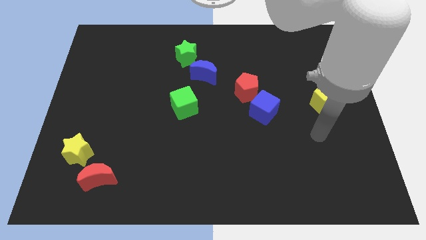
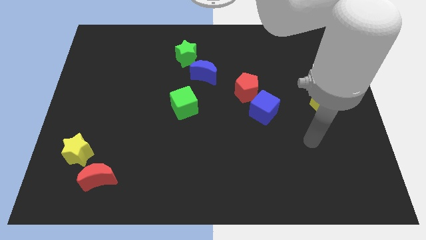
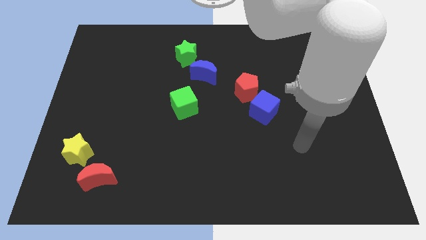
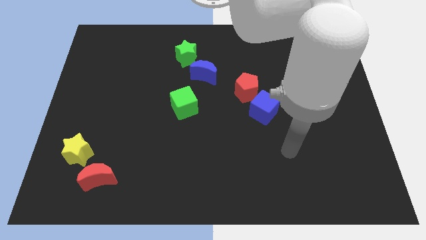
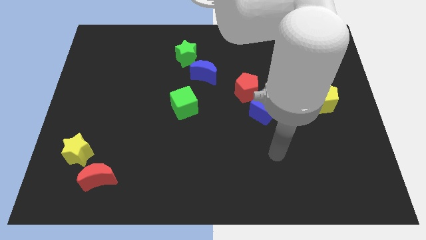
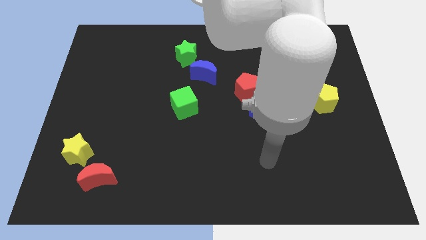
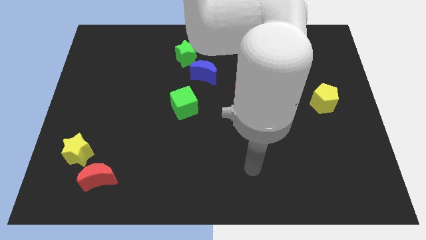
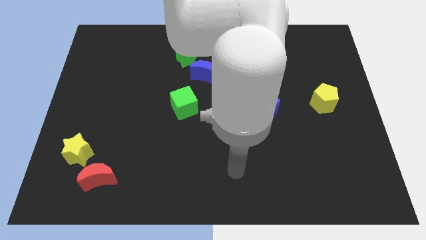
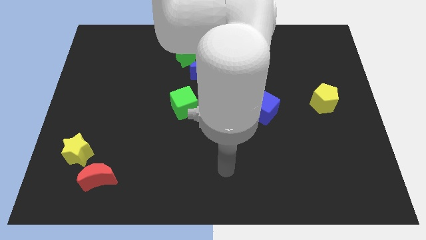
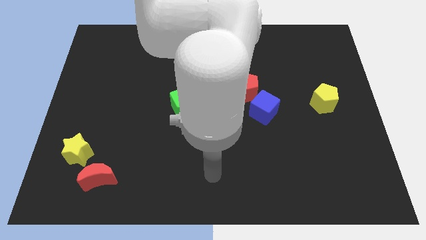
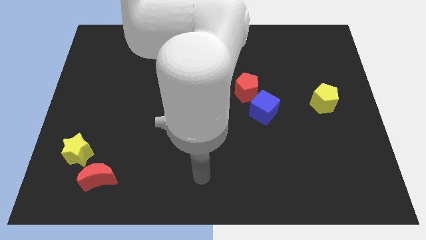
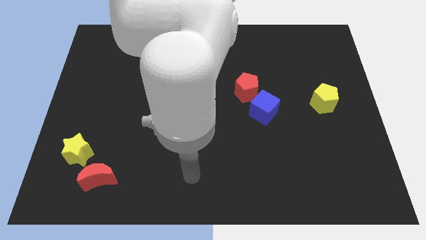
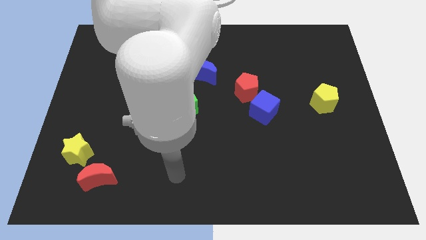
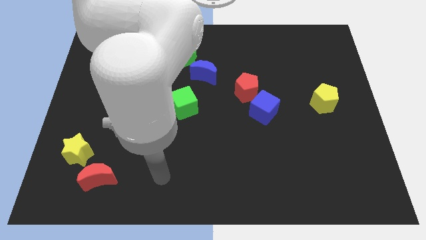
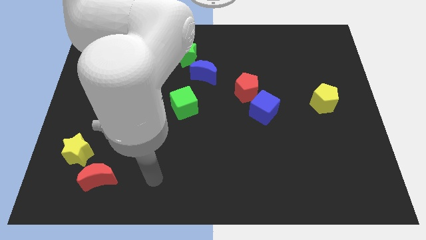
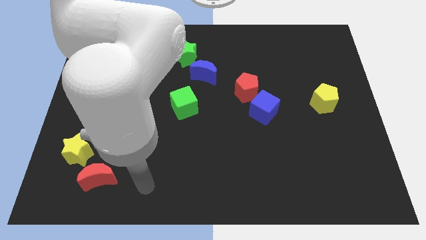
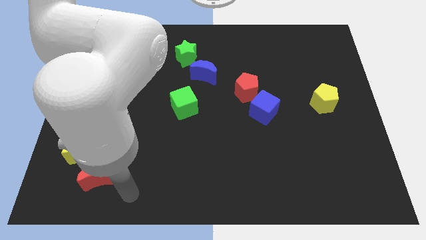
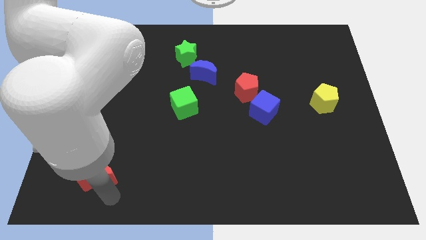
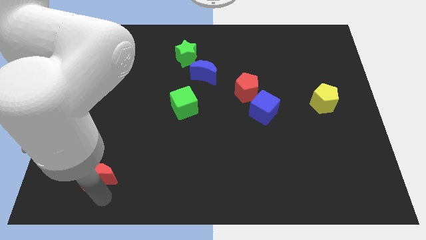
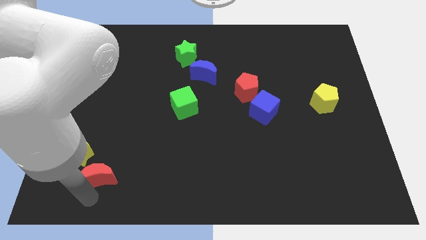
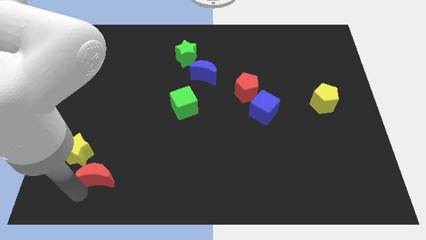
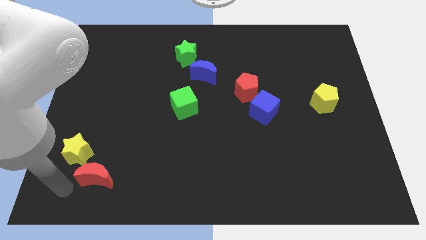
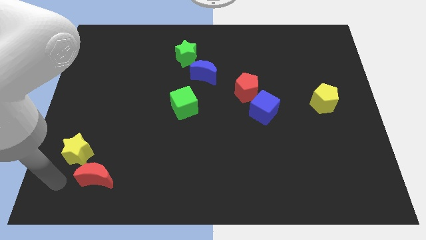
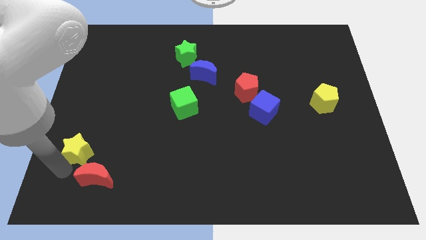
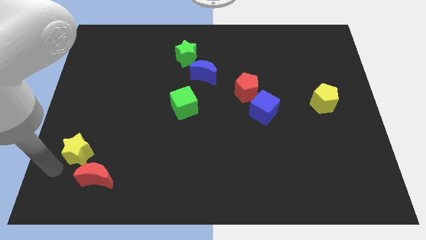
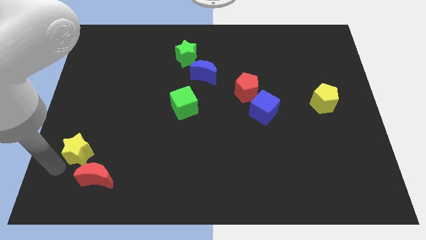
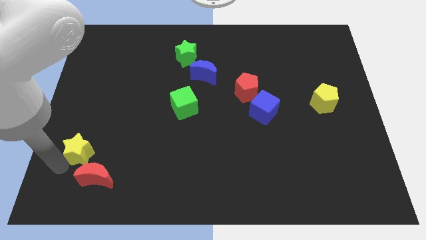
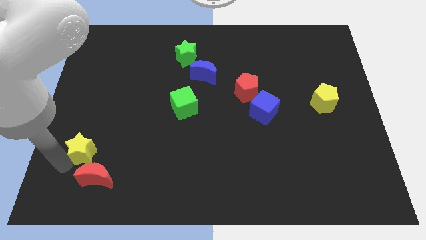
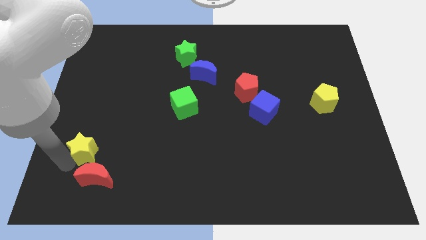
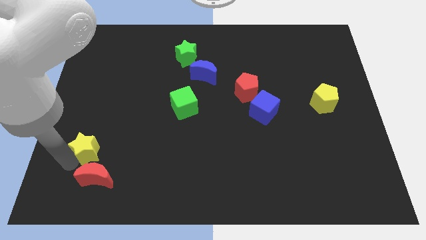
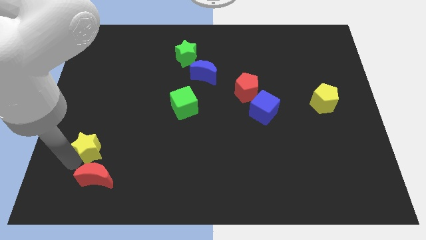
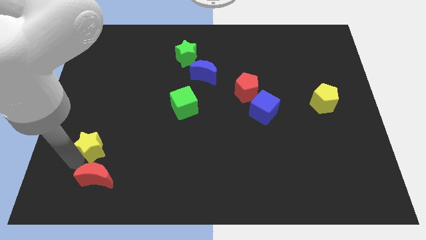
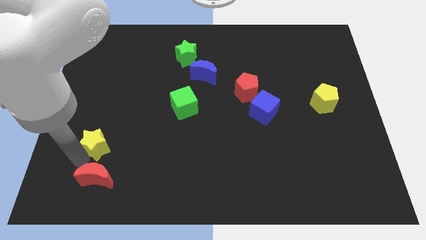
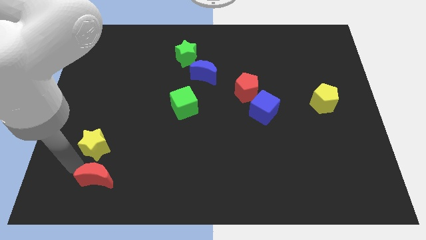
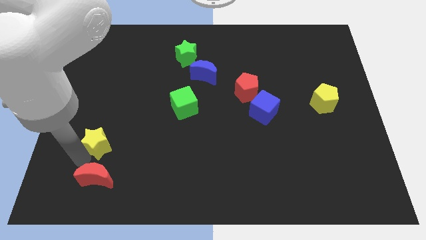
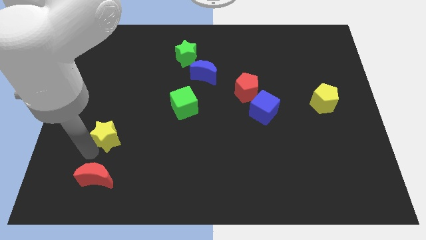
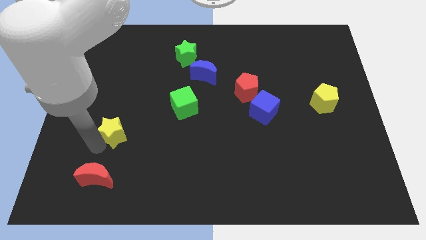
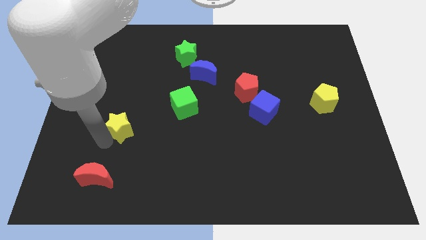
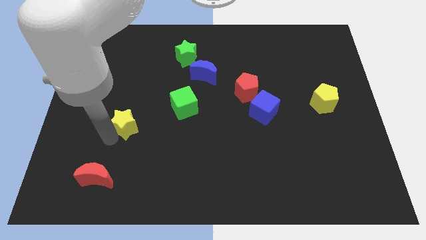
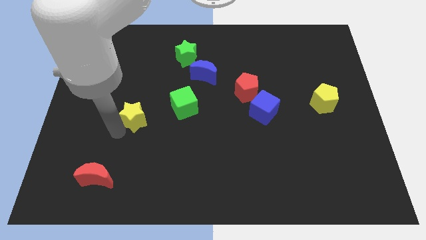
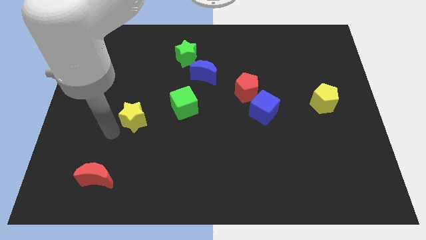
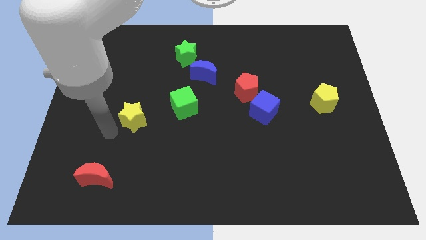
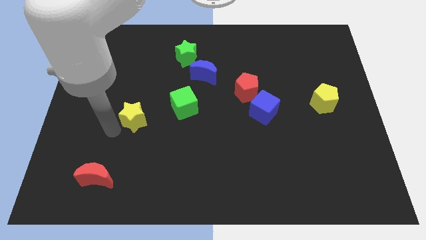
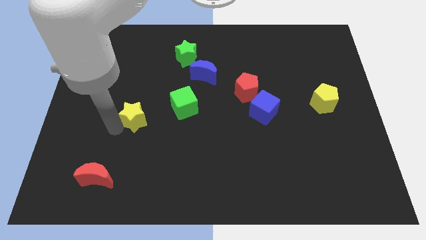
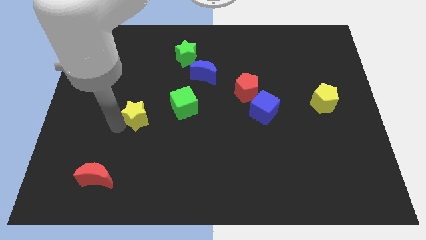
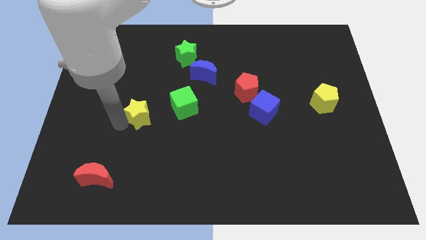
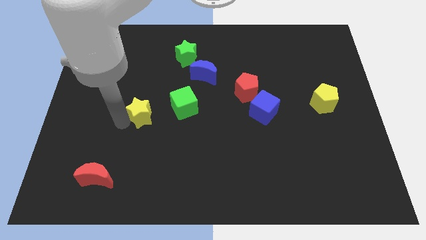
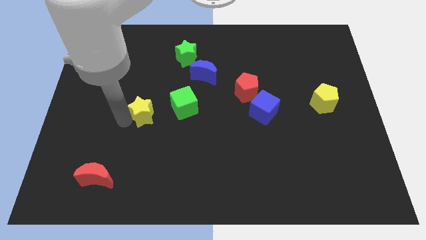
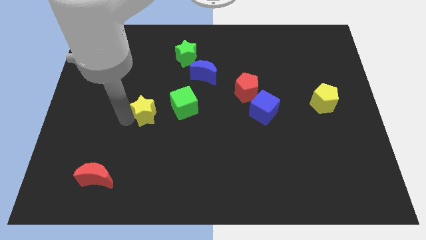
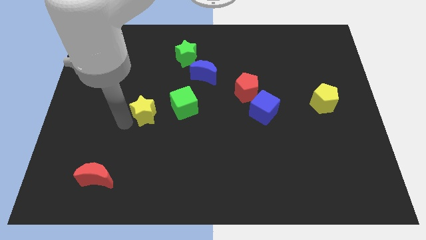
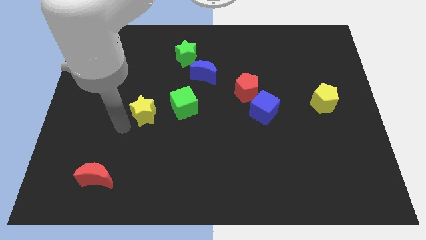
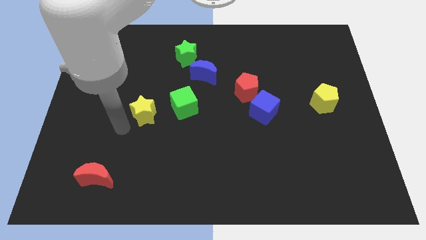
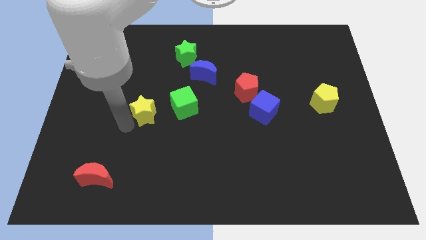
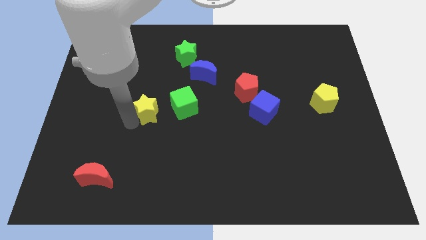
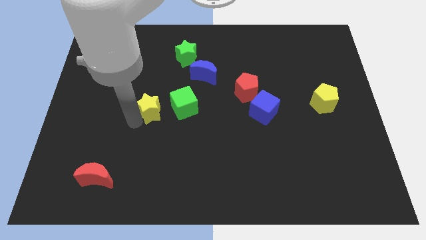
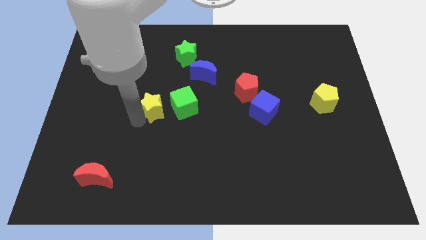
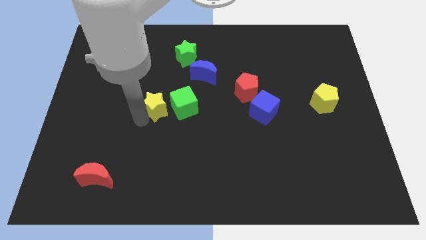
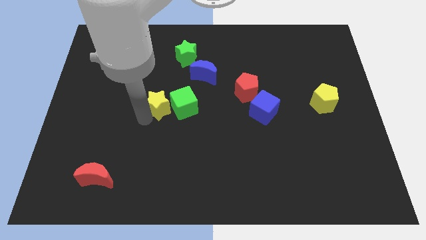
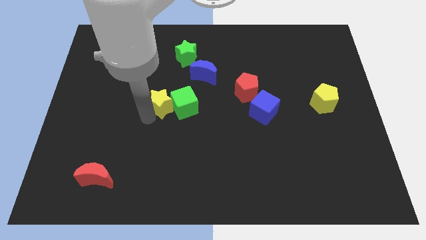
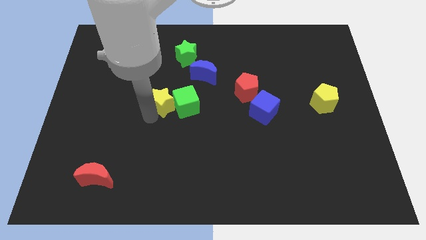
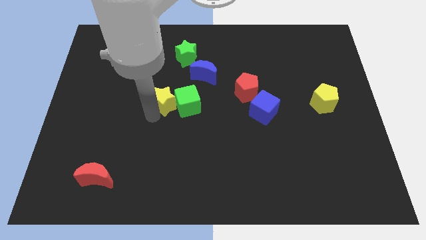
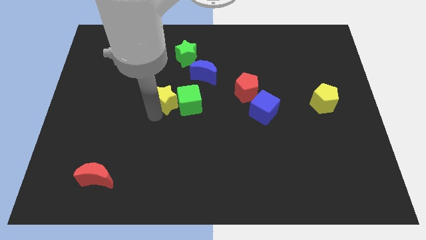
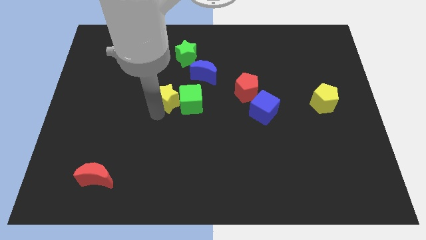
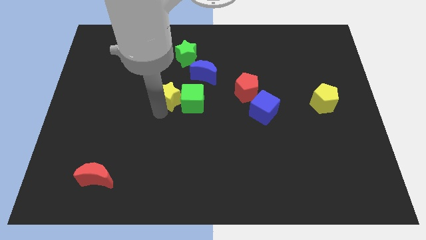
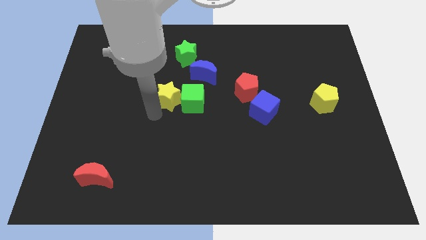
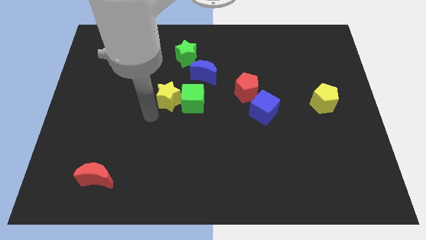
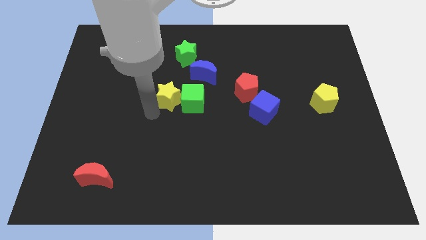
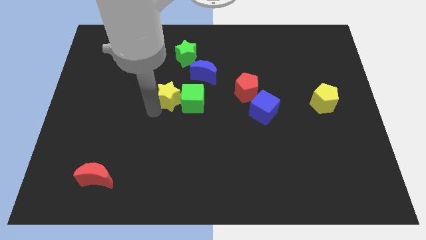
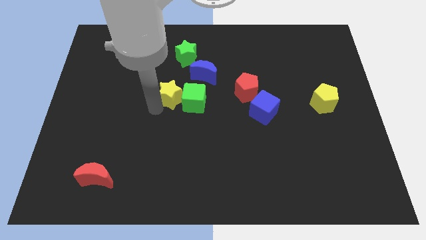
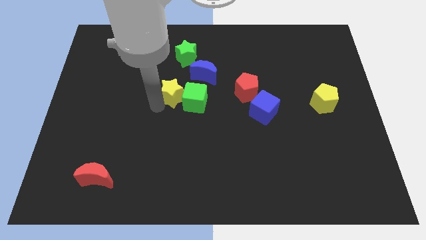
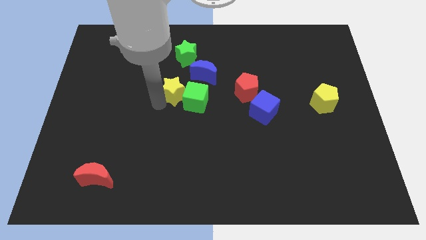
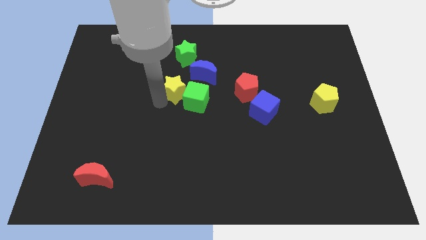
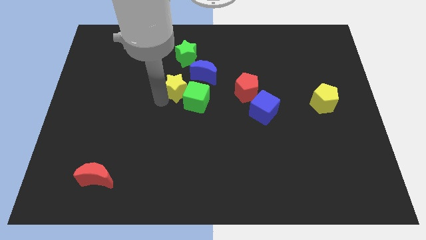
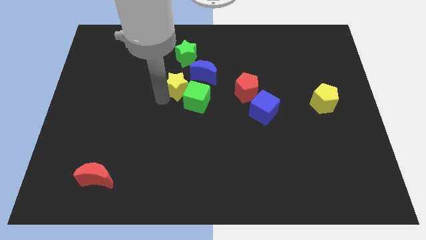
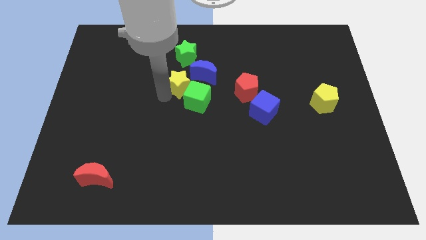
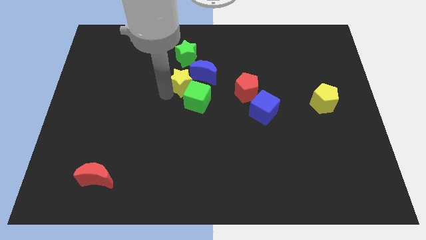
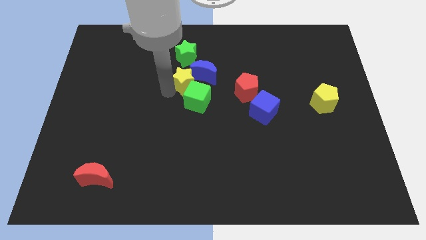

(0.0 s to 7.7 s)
push the yellow star close to the blue moon
